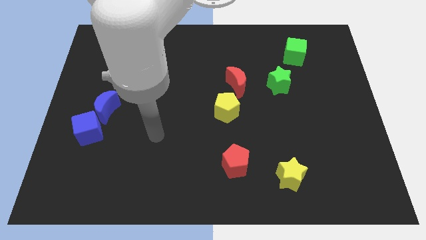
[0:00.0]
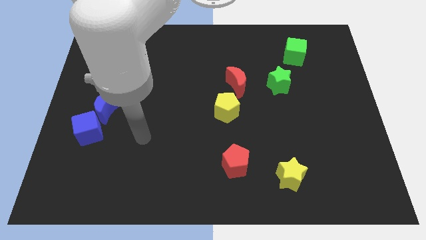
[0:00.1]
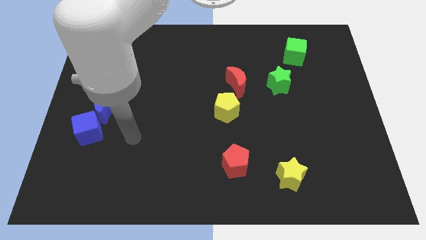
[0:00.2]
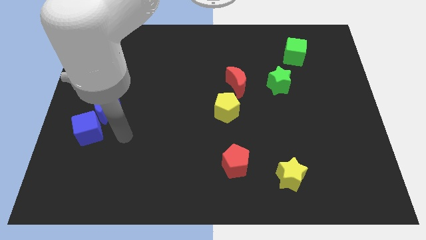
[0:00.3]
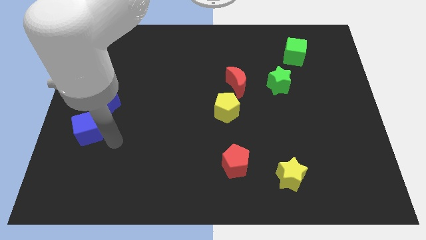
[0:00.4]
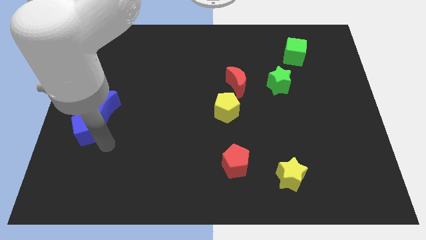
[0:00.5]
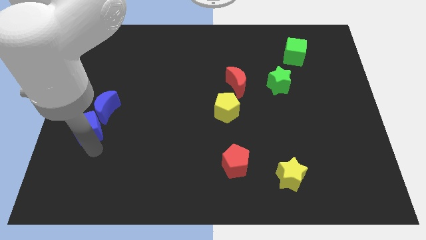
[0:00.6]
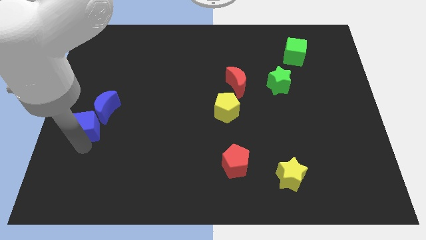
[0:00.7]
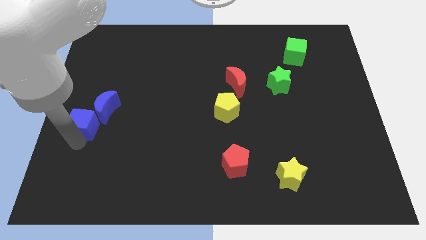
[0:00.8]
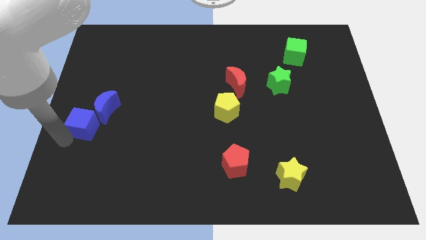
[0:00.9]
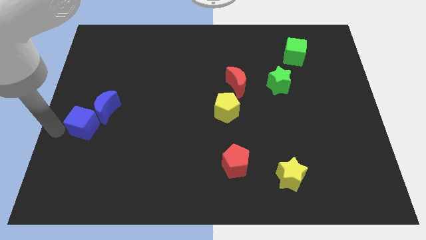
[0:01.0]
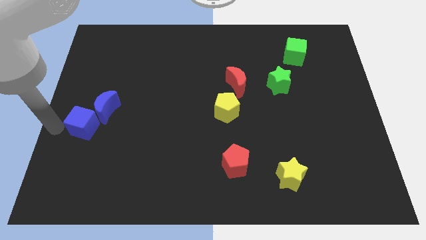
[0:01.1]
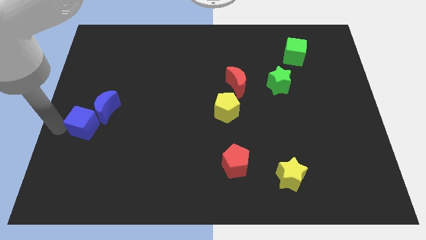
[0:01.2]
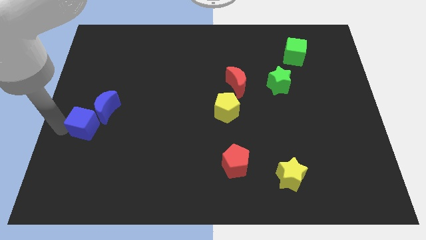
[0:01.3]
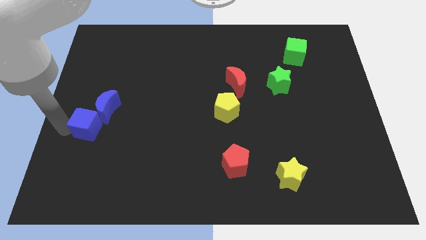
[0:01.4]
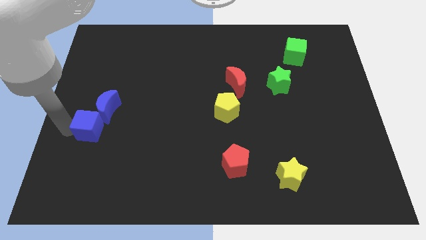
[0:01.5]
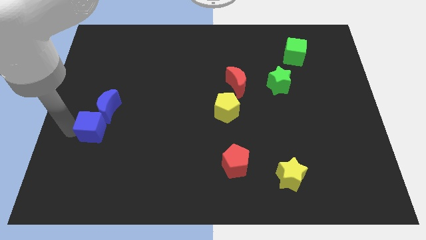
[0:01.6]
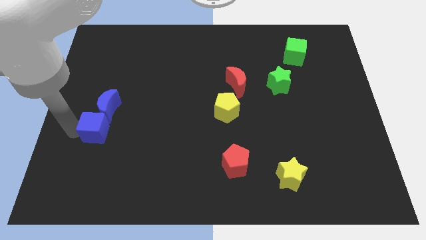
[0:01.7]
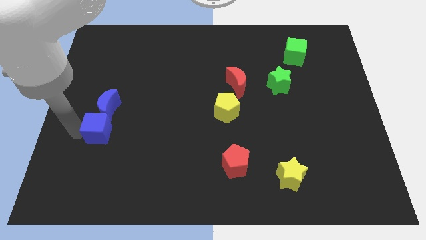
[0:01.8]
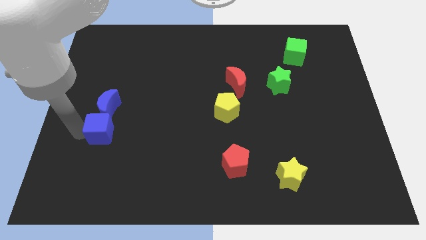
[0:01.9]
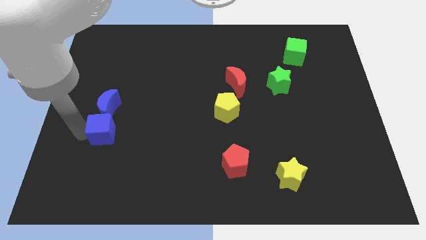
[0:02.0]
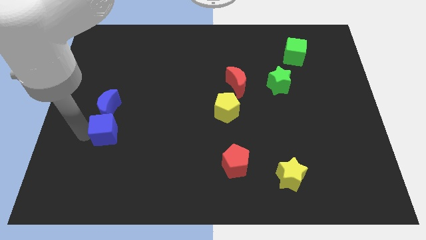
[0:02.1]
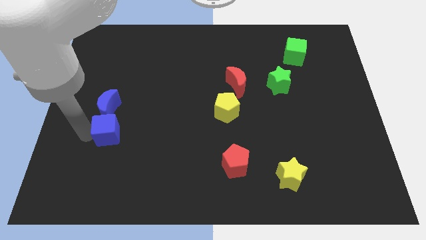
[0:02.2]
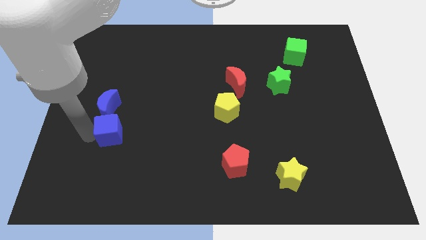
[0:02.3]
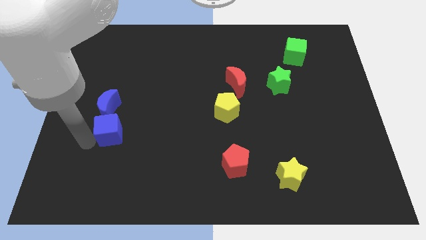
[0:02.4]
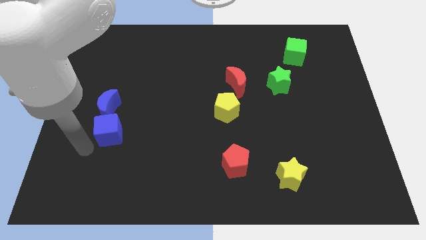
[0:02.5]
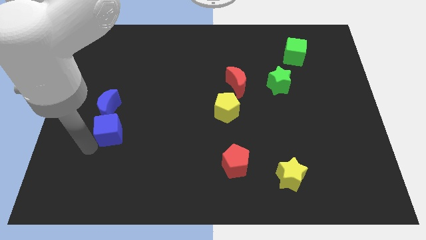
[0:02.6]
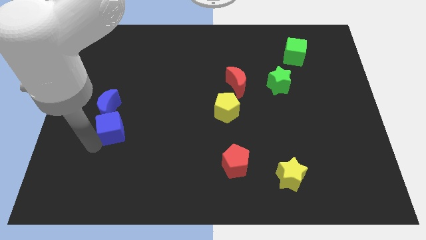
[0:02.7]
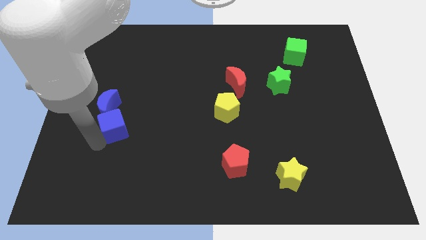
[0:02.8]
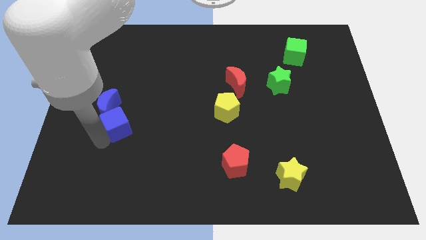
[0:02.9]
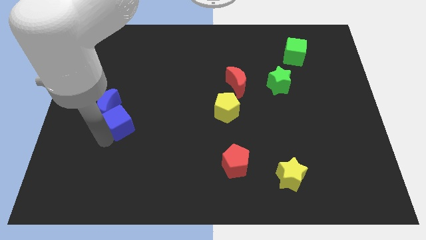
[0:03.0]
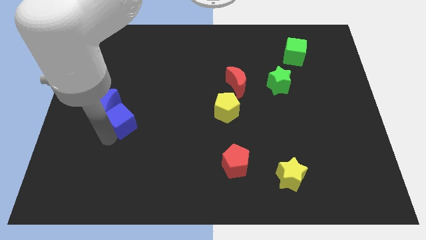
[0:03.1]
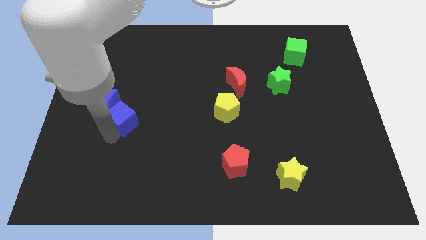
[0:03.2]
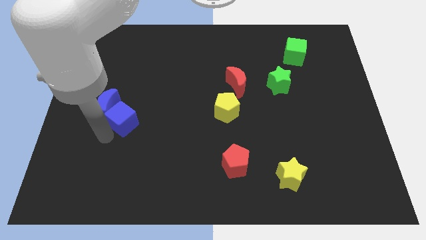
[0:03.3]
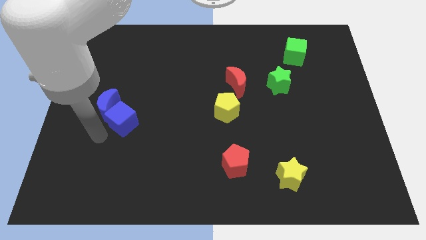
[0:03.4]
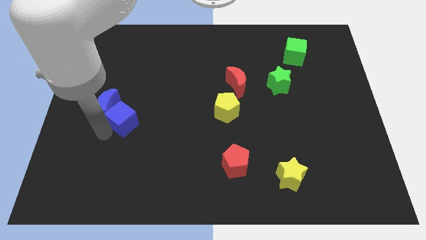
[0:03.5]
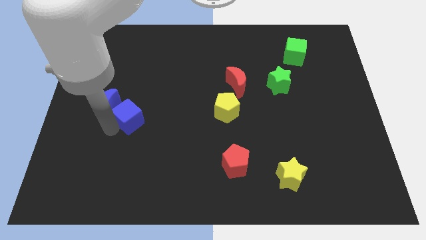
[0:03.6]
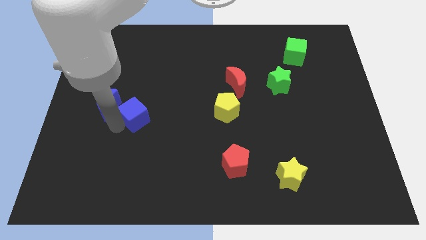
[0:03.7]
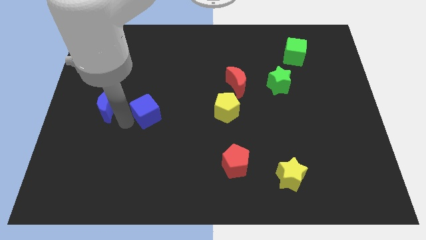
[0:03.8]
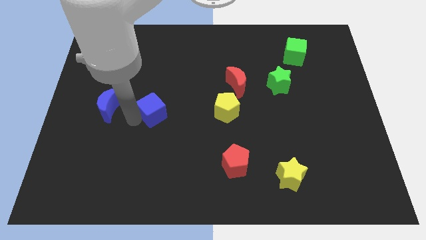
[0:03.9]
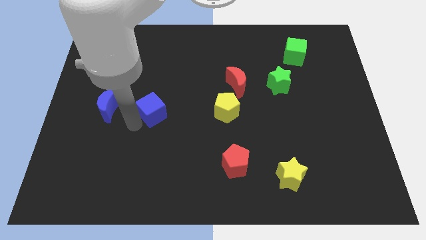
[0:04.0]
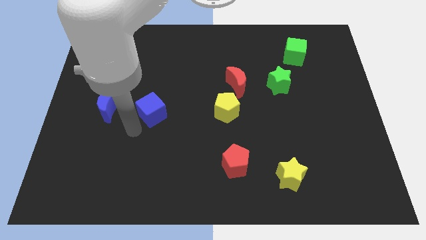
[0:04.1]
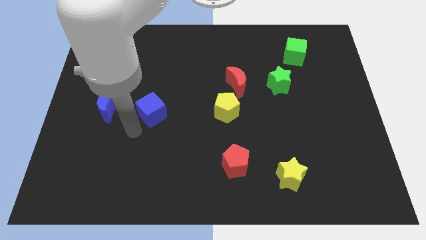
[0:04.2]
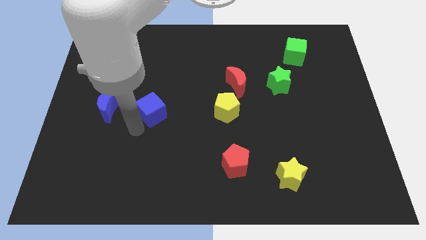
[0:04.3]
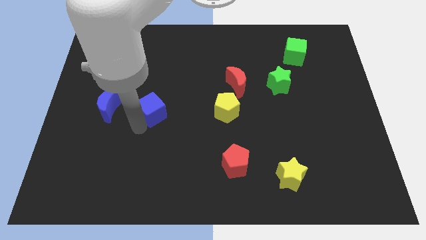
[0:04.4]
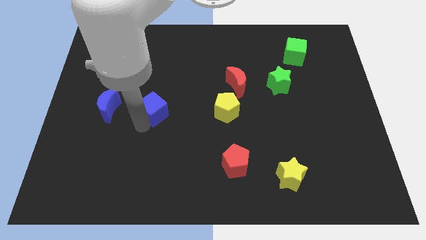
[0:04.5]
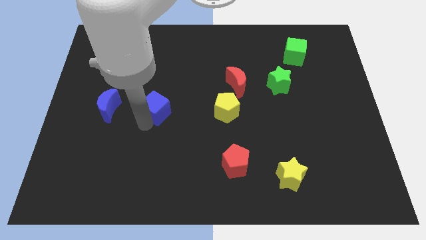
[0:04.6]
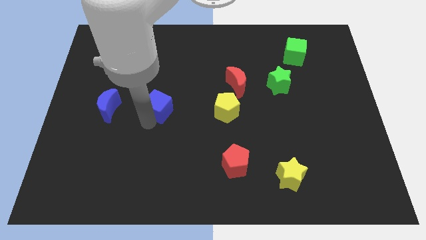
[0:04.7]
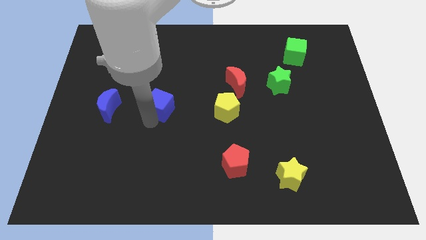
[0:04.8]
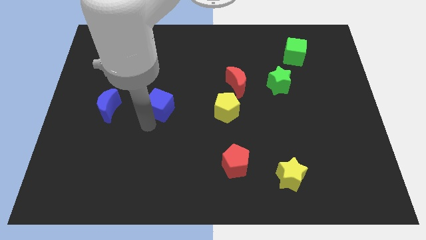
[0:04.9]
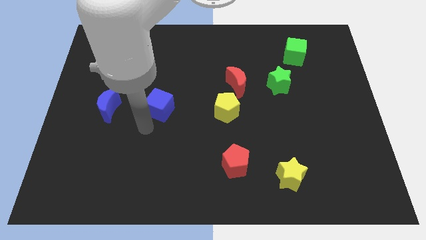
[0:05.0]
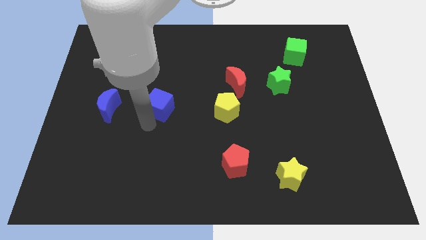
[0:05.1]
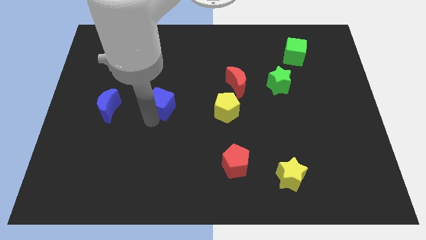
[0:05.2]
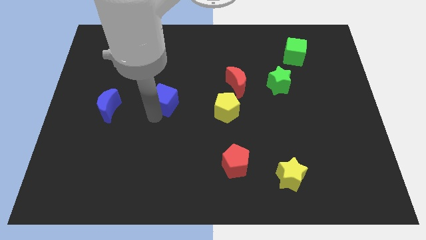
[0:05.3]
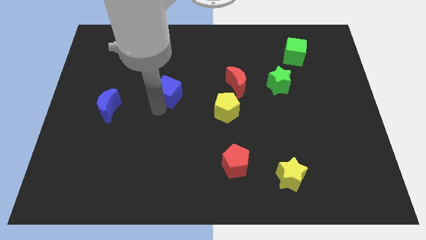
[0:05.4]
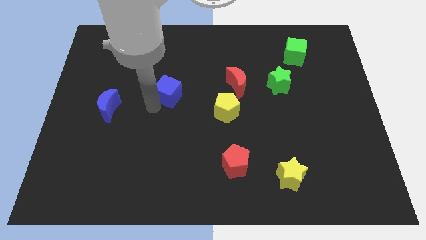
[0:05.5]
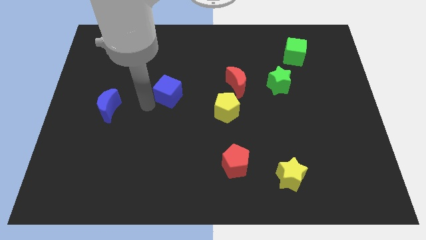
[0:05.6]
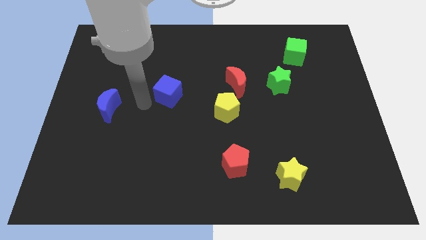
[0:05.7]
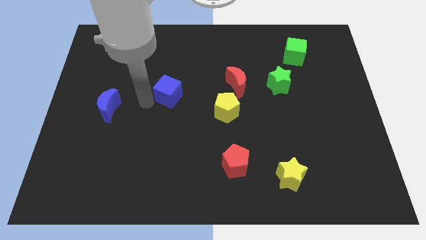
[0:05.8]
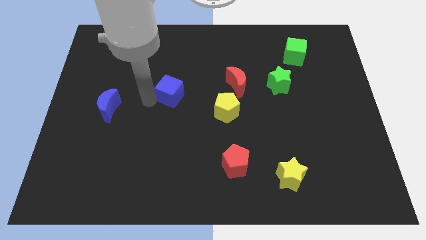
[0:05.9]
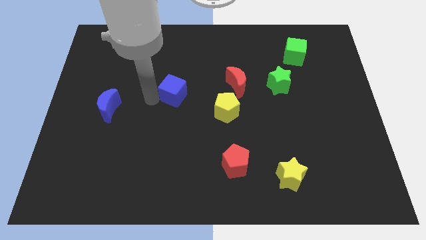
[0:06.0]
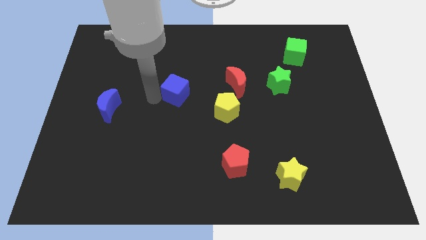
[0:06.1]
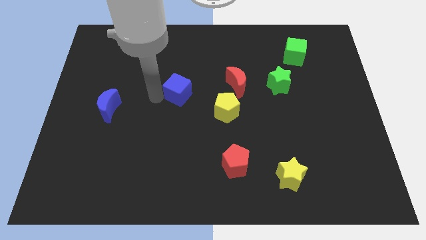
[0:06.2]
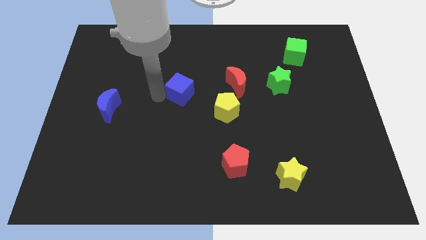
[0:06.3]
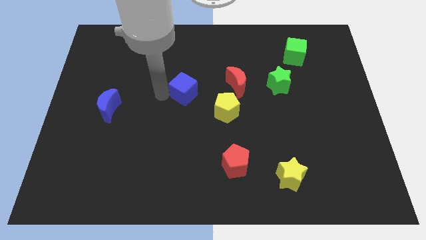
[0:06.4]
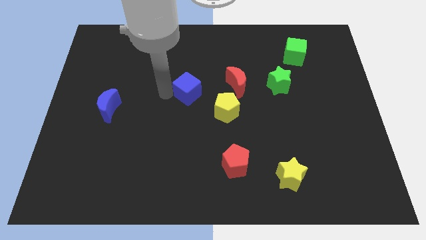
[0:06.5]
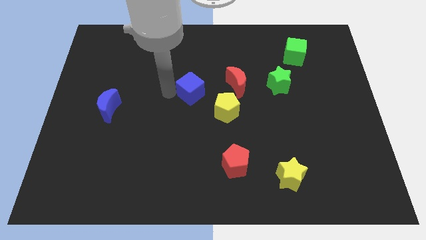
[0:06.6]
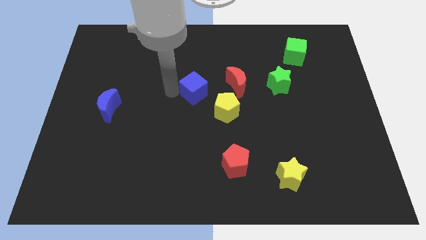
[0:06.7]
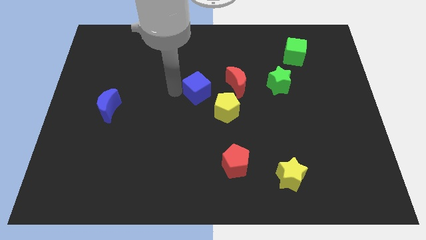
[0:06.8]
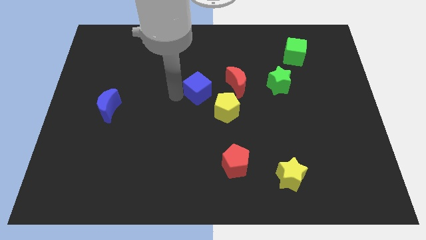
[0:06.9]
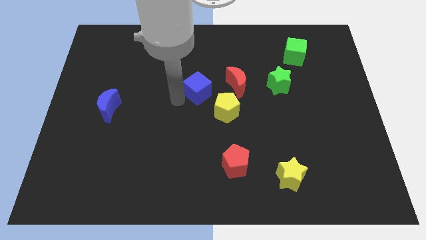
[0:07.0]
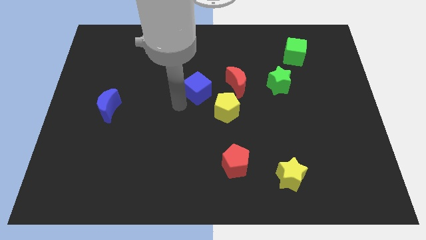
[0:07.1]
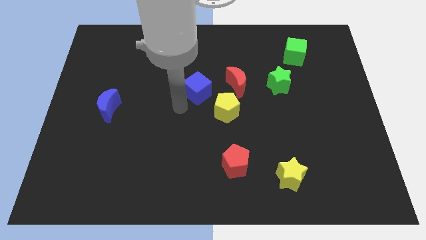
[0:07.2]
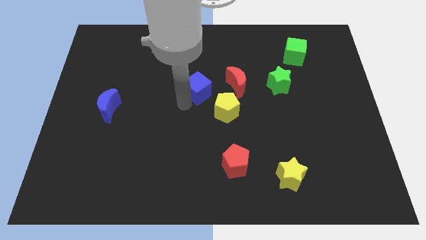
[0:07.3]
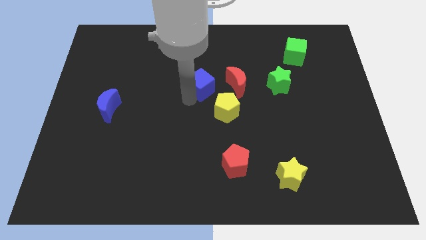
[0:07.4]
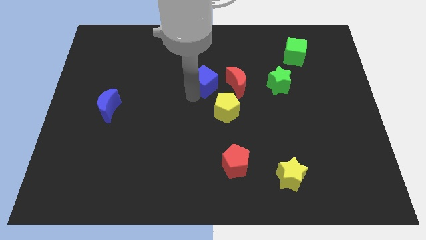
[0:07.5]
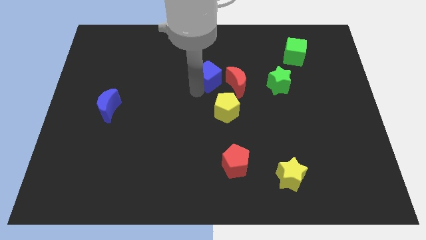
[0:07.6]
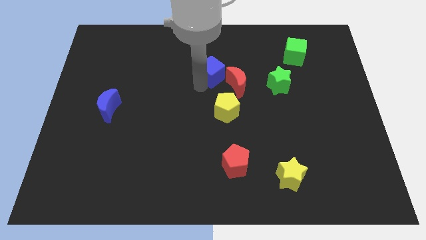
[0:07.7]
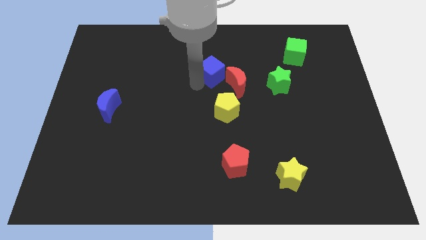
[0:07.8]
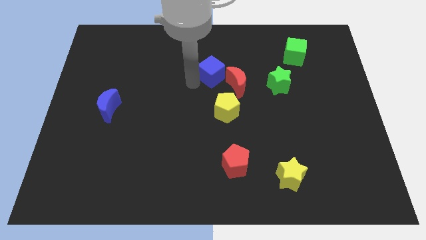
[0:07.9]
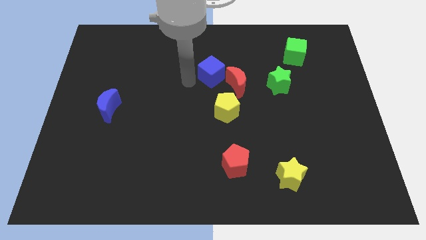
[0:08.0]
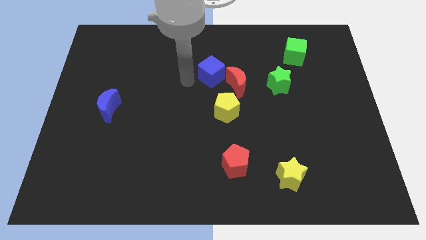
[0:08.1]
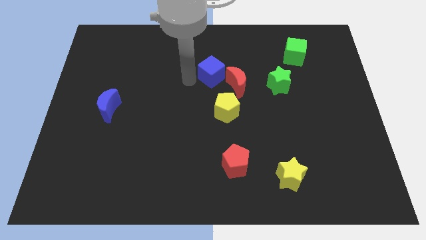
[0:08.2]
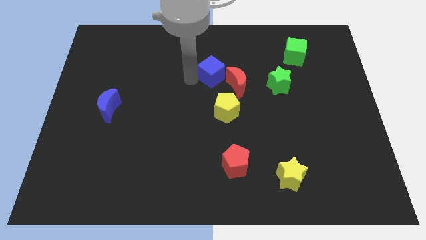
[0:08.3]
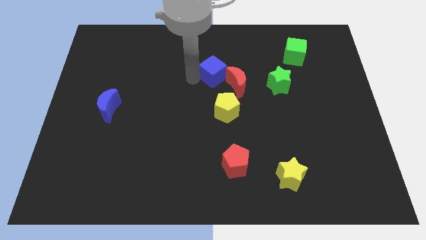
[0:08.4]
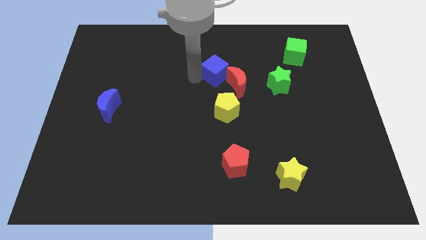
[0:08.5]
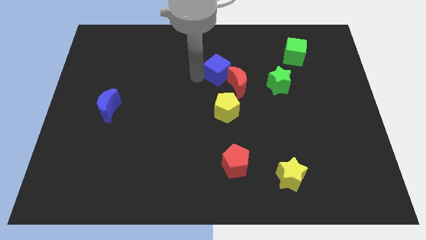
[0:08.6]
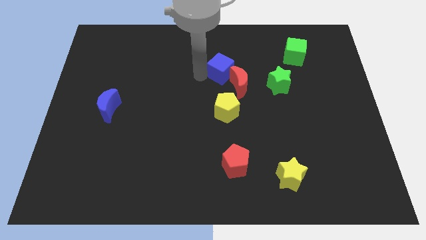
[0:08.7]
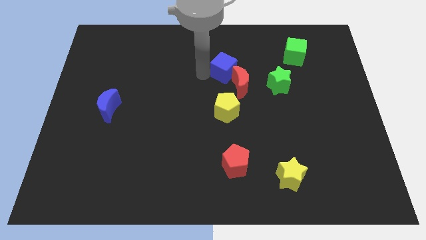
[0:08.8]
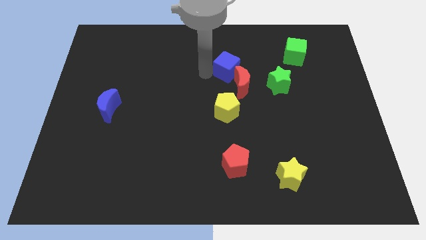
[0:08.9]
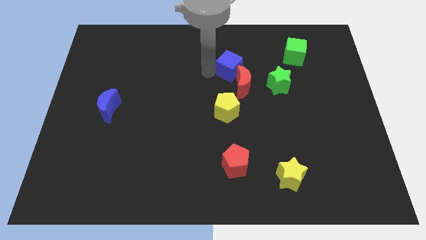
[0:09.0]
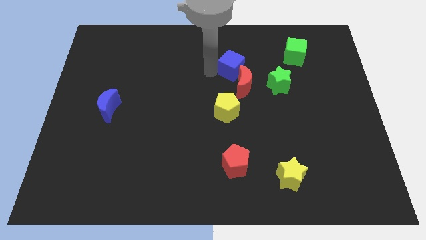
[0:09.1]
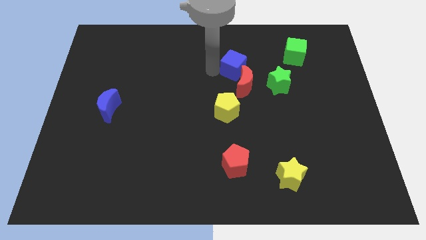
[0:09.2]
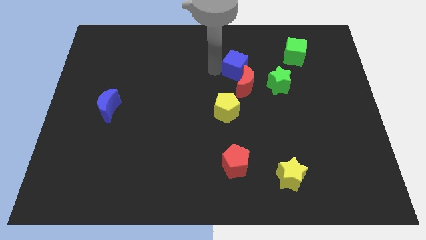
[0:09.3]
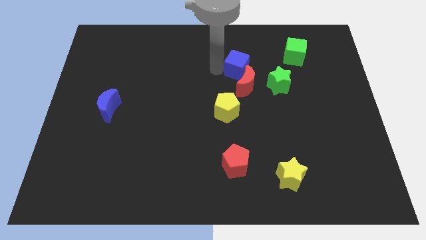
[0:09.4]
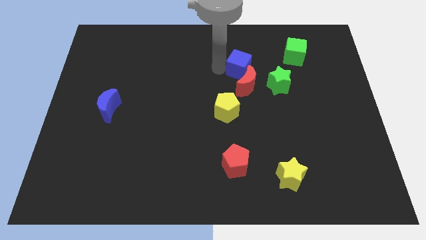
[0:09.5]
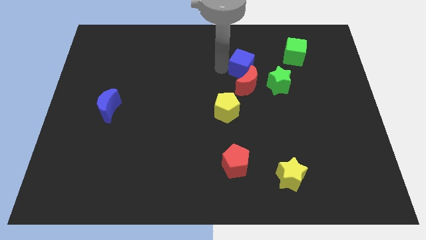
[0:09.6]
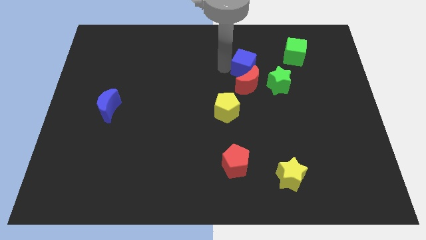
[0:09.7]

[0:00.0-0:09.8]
move the blue cube to the left of the green cube
